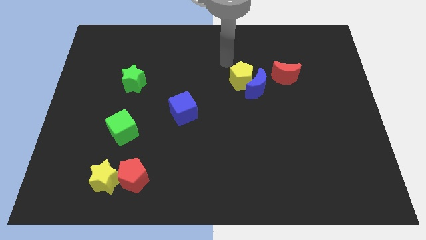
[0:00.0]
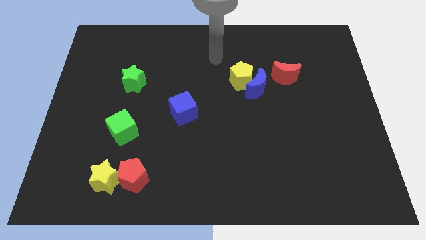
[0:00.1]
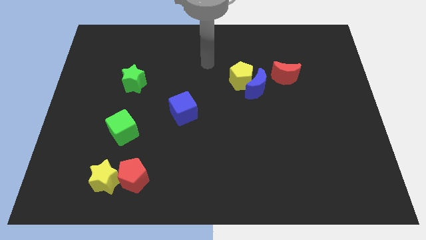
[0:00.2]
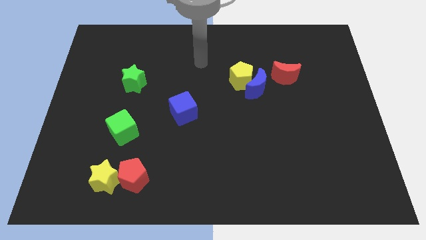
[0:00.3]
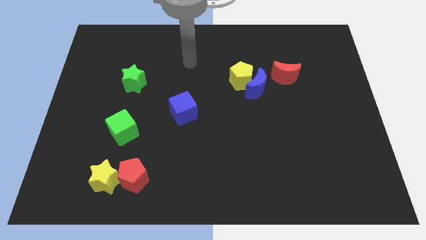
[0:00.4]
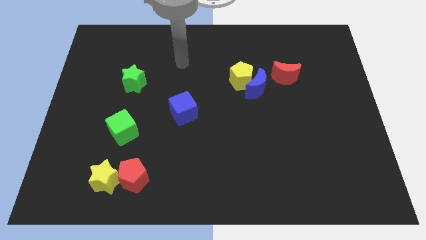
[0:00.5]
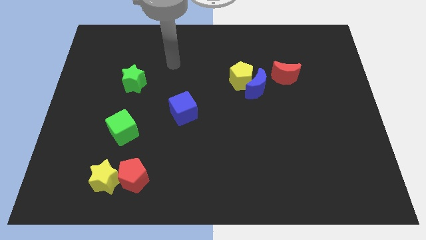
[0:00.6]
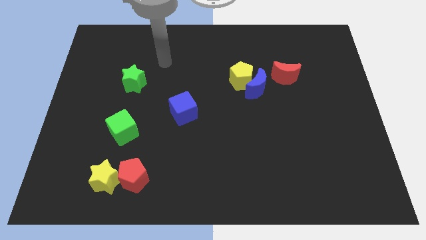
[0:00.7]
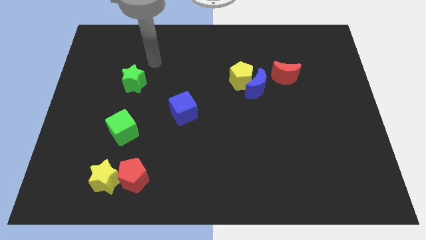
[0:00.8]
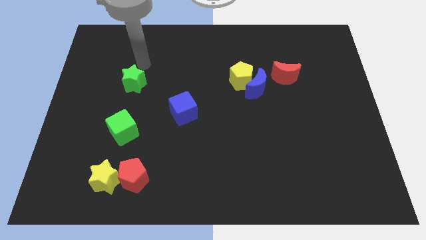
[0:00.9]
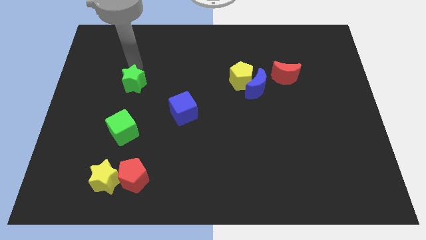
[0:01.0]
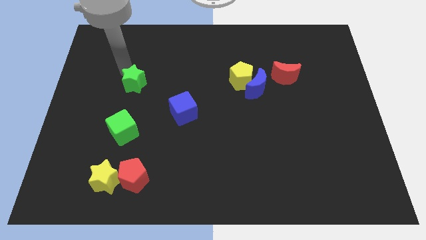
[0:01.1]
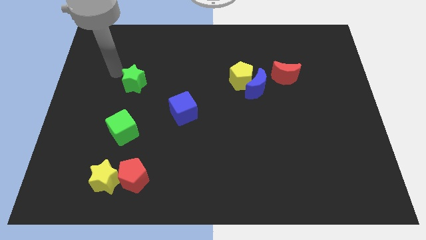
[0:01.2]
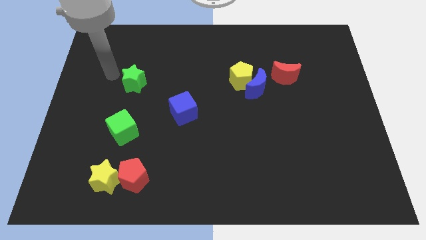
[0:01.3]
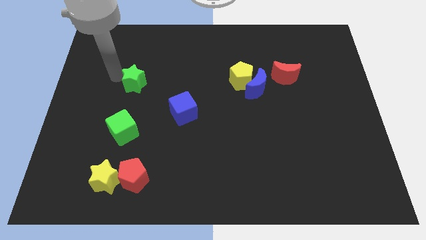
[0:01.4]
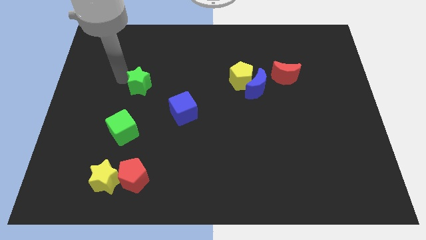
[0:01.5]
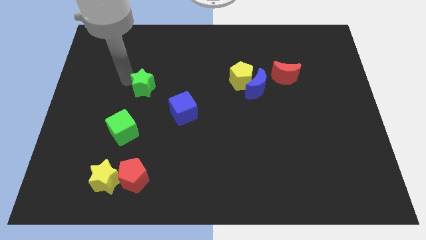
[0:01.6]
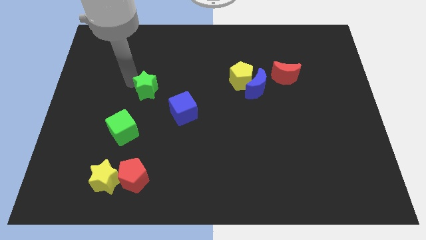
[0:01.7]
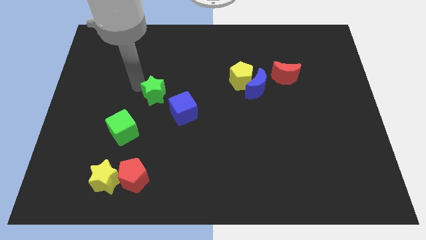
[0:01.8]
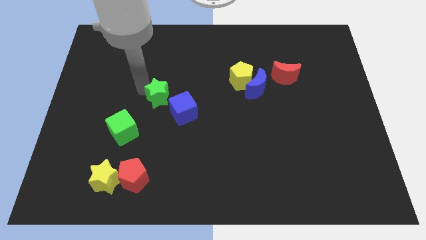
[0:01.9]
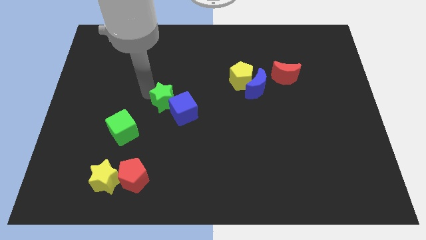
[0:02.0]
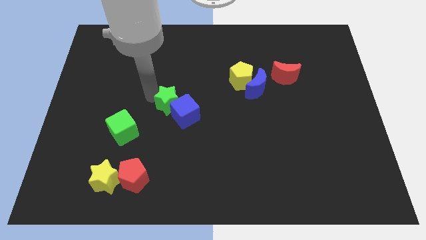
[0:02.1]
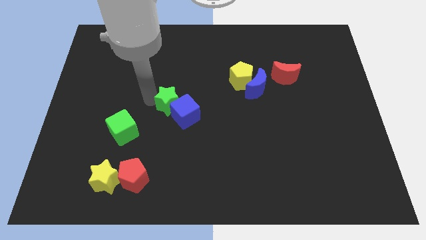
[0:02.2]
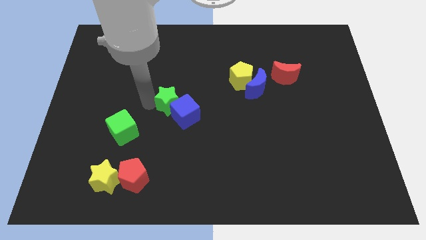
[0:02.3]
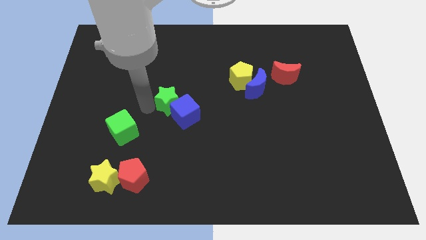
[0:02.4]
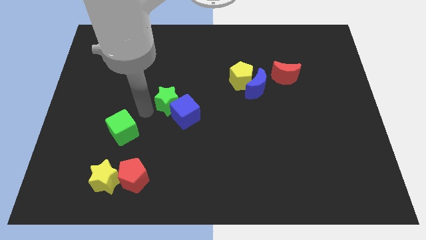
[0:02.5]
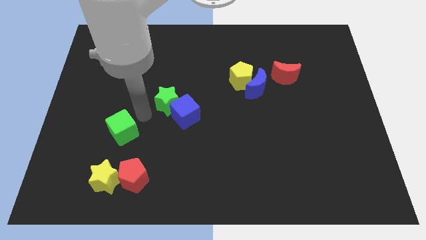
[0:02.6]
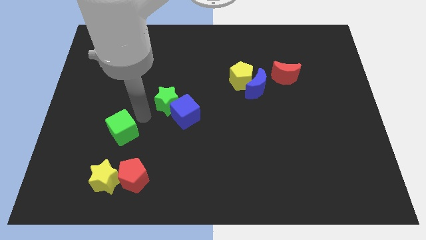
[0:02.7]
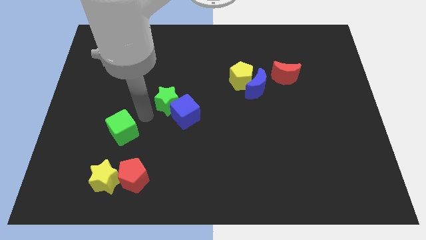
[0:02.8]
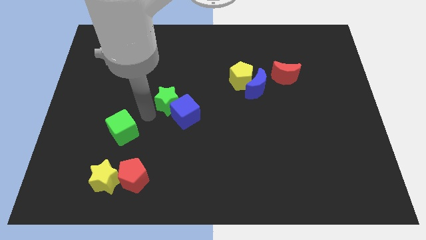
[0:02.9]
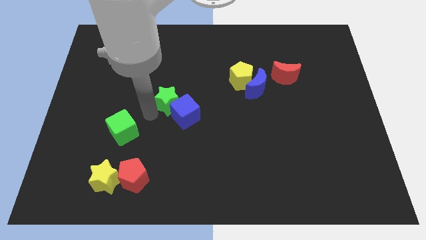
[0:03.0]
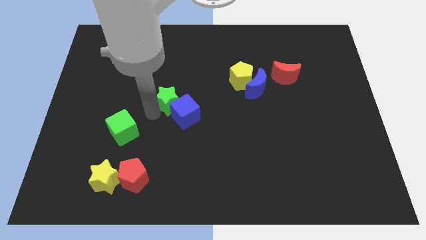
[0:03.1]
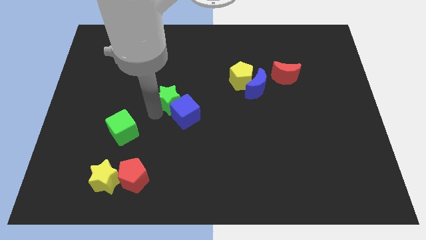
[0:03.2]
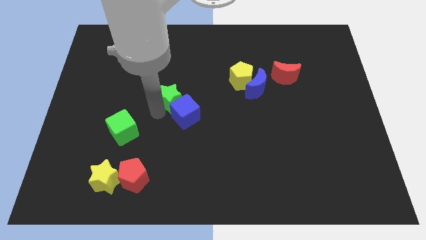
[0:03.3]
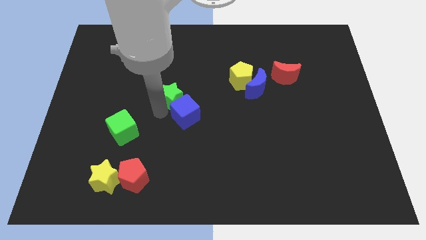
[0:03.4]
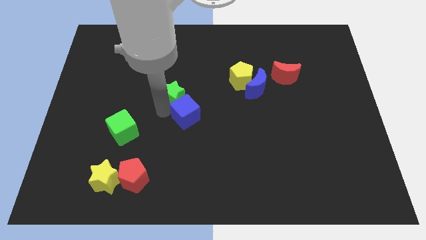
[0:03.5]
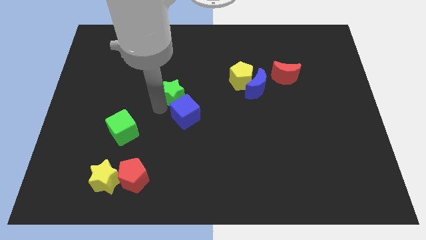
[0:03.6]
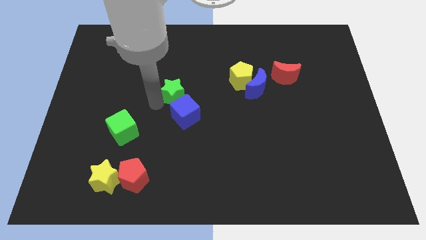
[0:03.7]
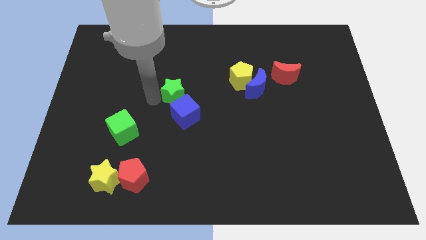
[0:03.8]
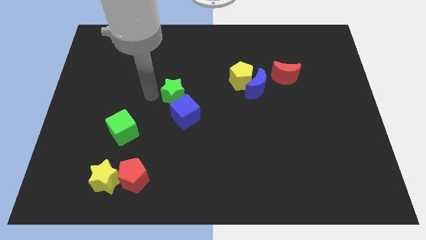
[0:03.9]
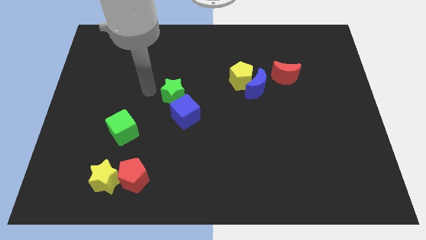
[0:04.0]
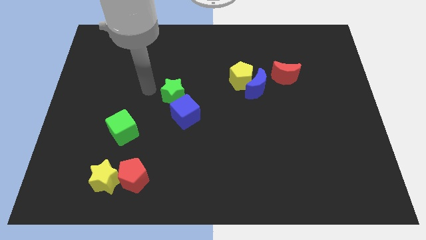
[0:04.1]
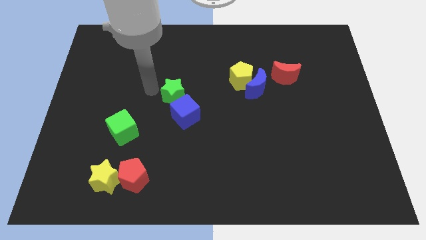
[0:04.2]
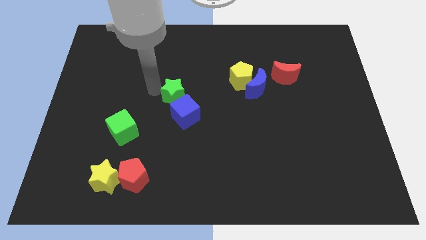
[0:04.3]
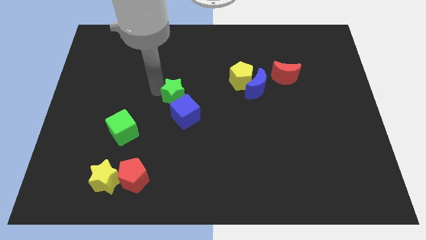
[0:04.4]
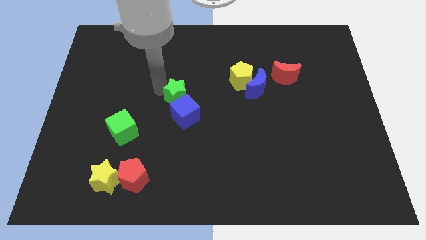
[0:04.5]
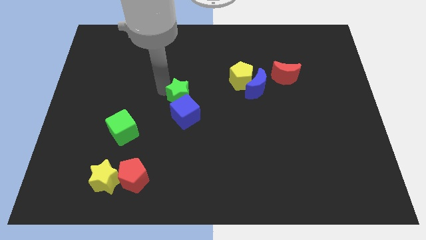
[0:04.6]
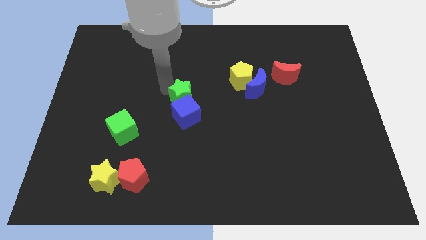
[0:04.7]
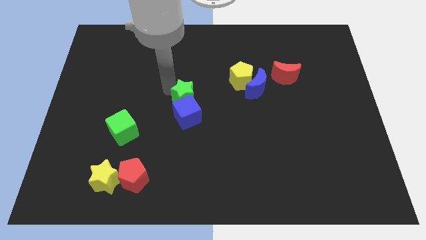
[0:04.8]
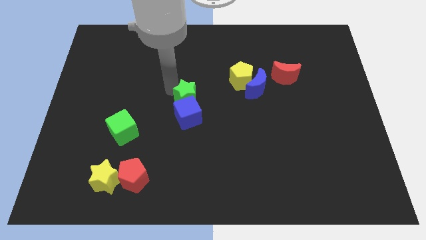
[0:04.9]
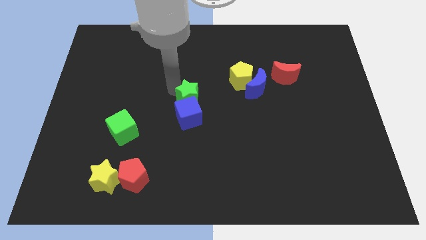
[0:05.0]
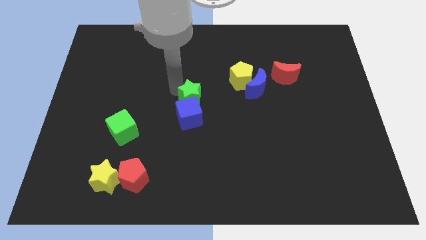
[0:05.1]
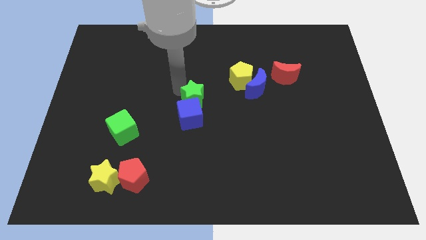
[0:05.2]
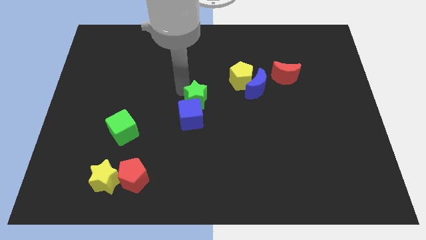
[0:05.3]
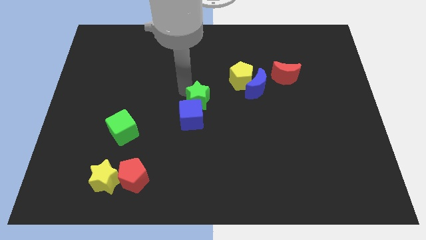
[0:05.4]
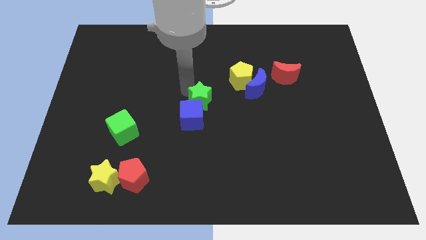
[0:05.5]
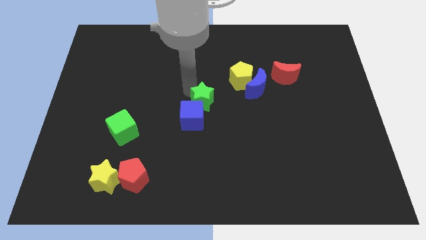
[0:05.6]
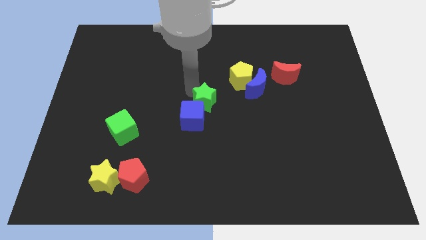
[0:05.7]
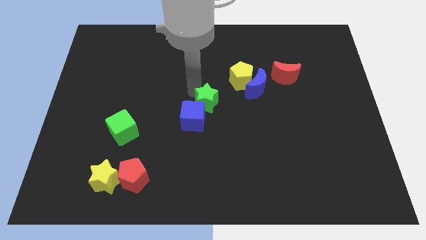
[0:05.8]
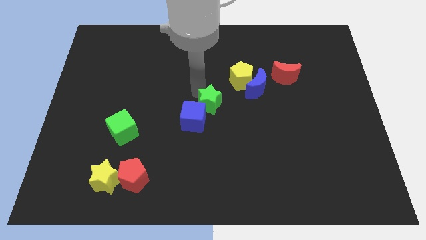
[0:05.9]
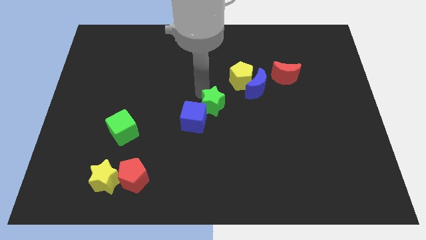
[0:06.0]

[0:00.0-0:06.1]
put the green star to the right of the blue cube

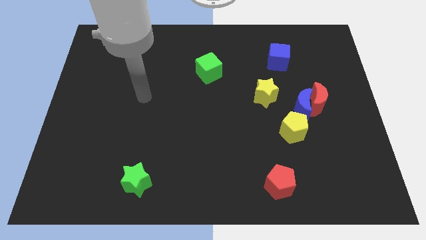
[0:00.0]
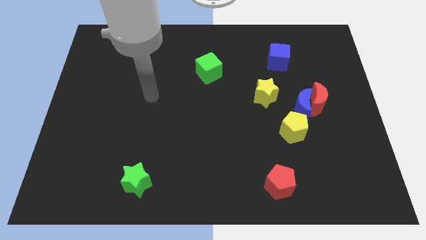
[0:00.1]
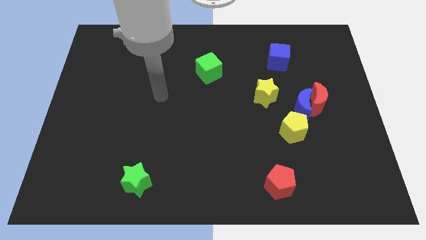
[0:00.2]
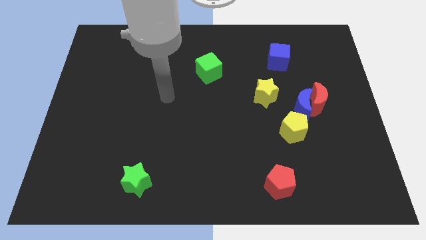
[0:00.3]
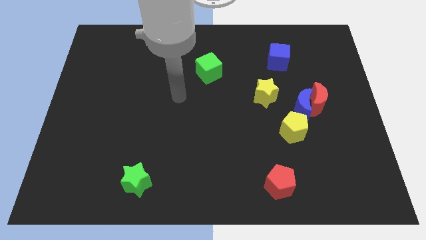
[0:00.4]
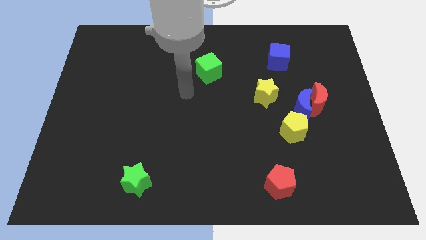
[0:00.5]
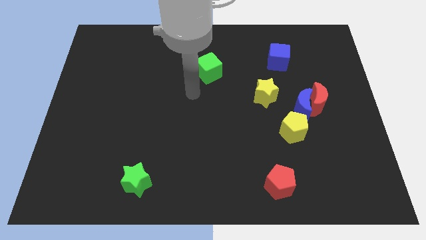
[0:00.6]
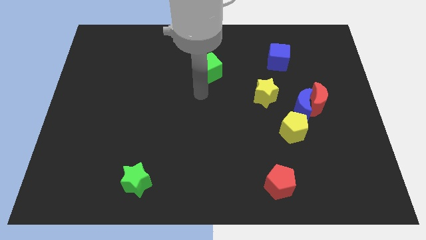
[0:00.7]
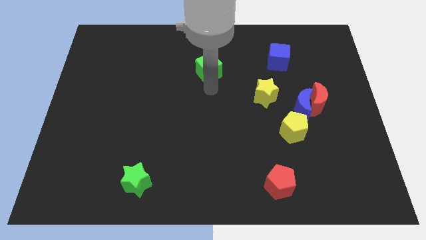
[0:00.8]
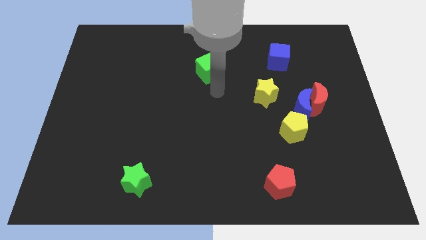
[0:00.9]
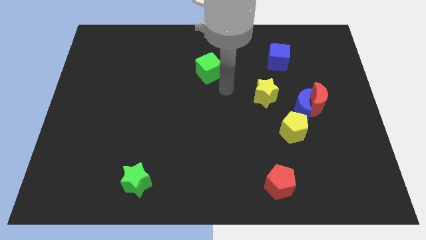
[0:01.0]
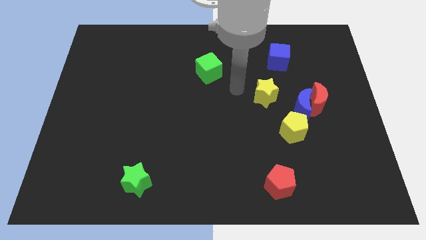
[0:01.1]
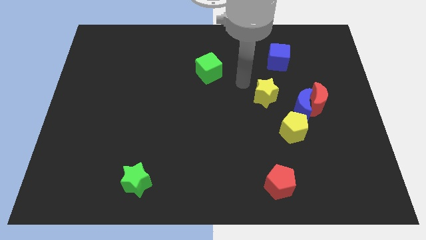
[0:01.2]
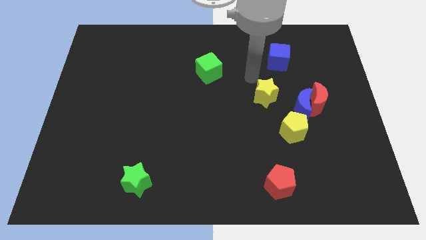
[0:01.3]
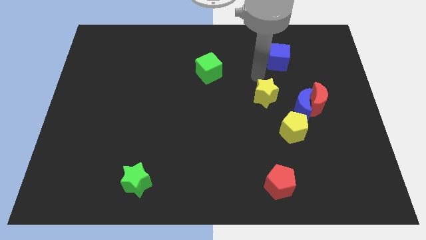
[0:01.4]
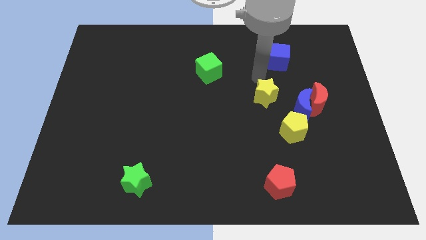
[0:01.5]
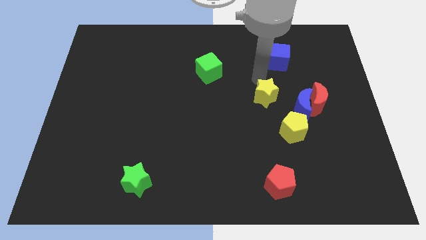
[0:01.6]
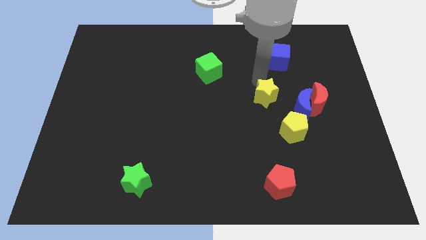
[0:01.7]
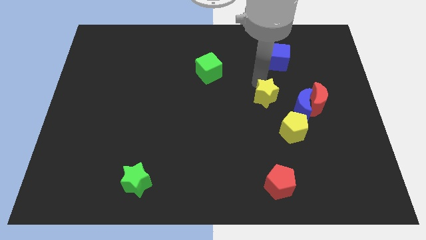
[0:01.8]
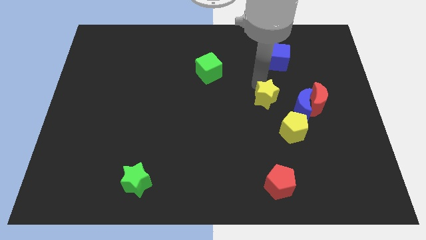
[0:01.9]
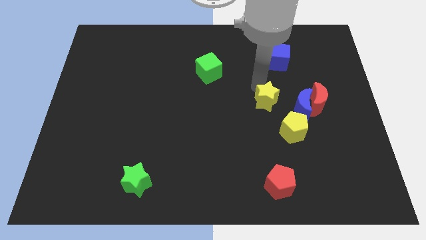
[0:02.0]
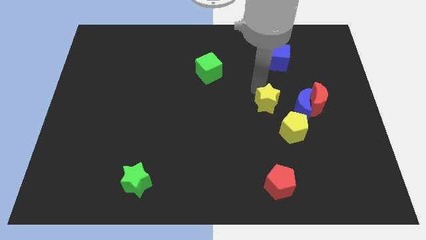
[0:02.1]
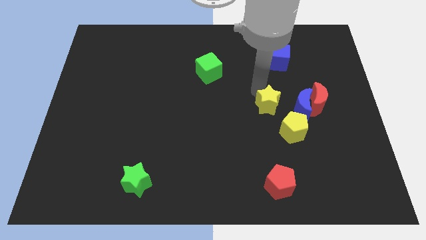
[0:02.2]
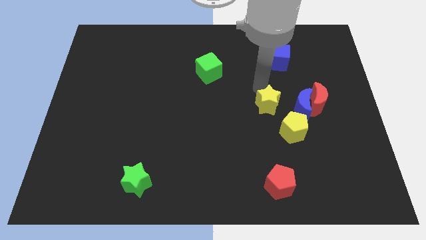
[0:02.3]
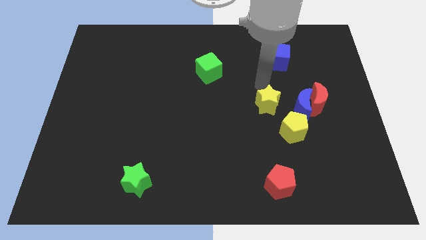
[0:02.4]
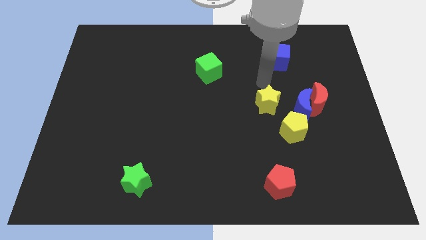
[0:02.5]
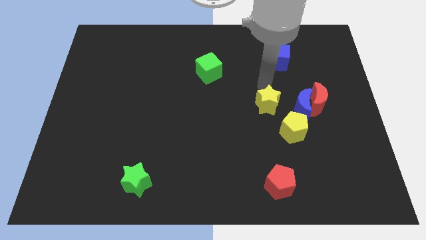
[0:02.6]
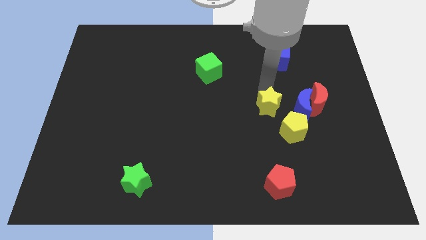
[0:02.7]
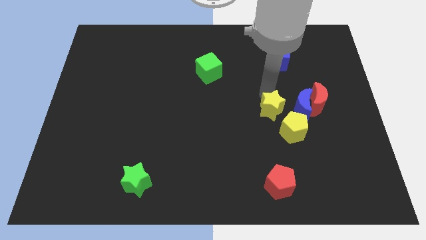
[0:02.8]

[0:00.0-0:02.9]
put the yellow star to the bottom left side of the blue moon
